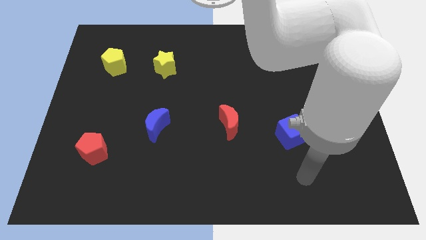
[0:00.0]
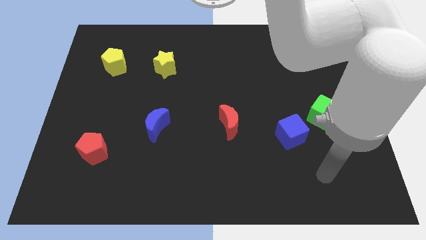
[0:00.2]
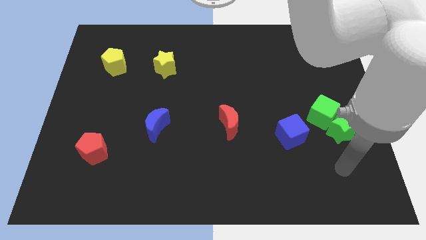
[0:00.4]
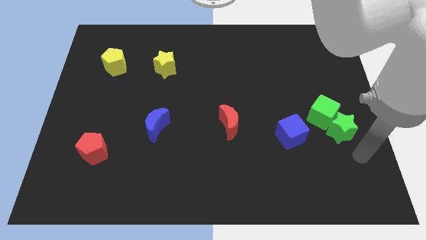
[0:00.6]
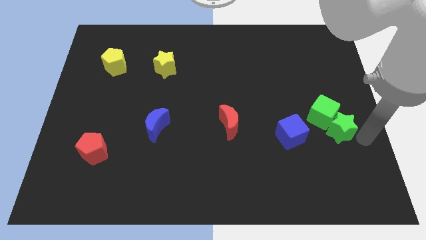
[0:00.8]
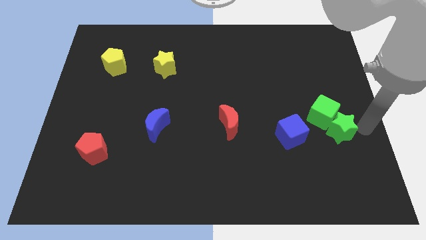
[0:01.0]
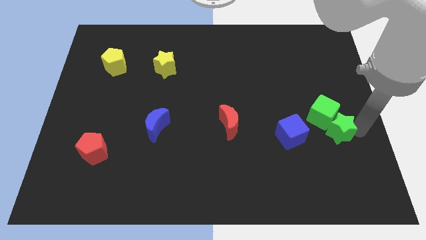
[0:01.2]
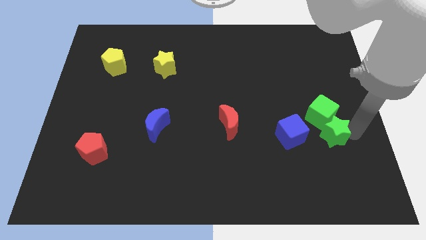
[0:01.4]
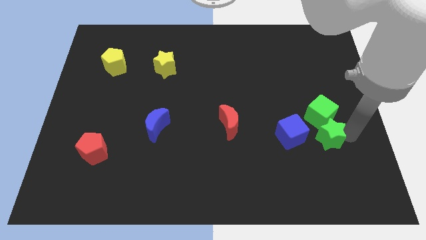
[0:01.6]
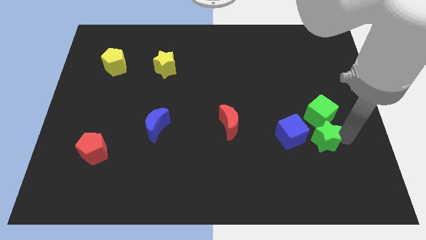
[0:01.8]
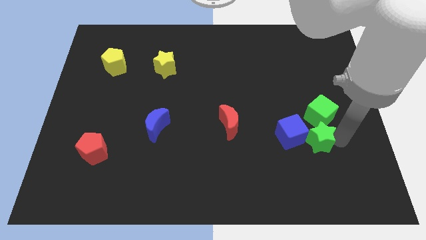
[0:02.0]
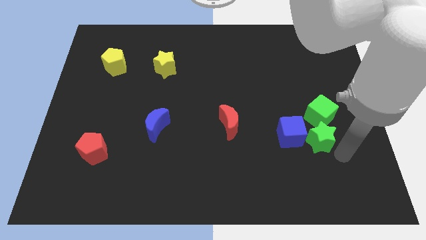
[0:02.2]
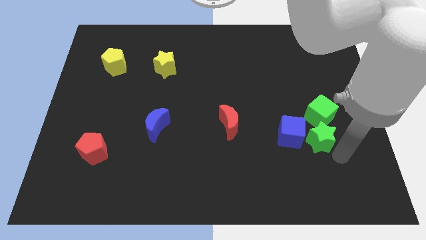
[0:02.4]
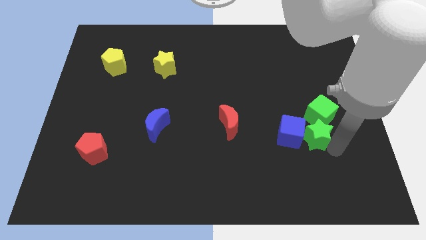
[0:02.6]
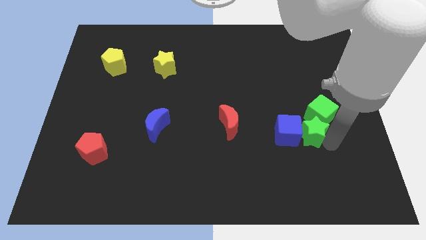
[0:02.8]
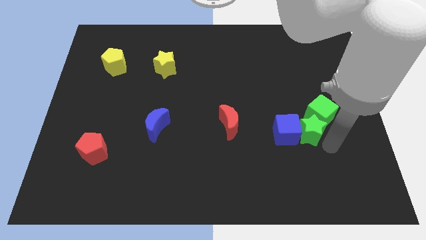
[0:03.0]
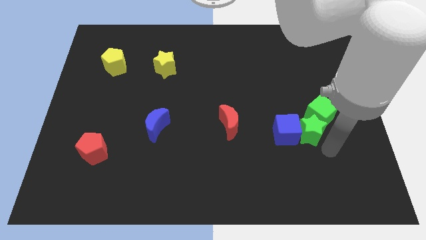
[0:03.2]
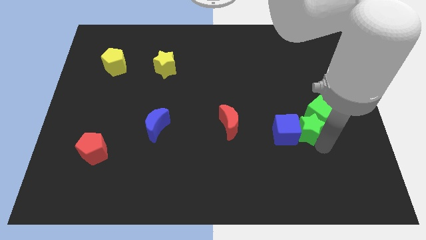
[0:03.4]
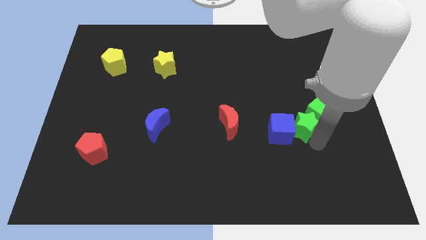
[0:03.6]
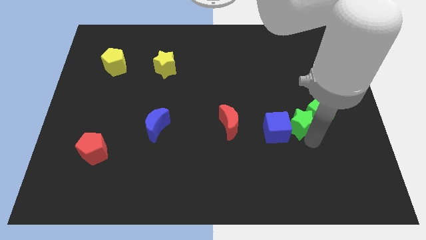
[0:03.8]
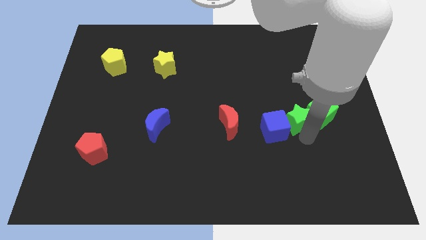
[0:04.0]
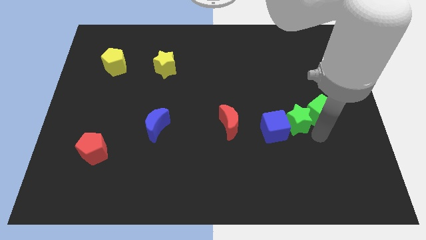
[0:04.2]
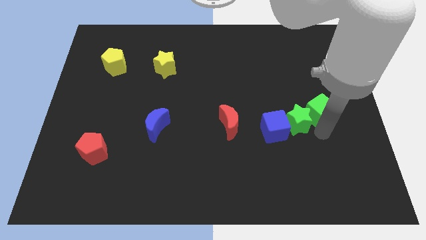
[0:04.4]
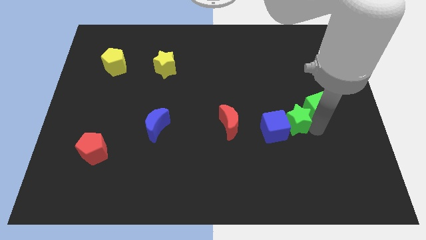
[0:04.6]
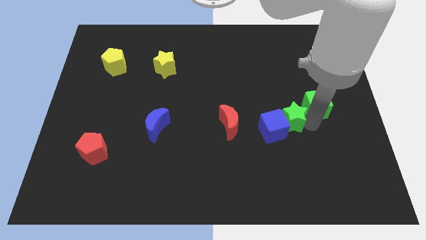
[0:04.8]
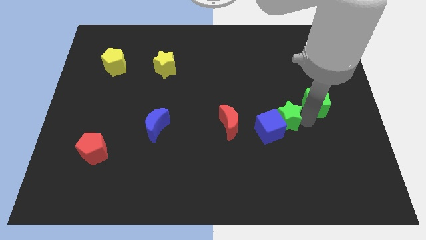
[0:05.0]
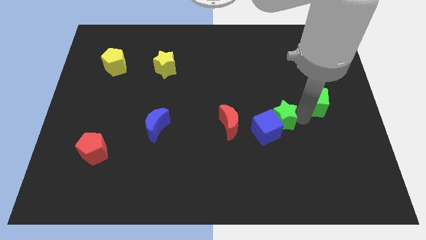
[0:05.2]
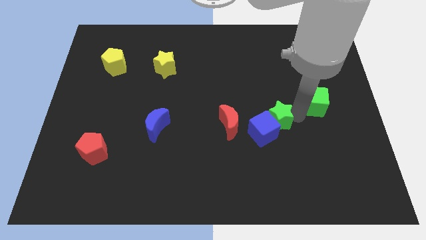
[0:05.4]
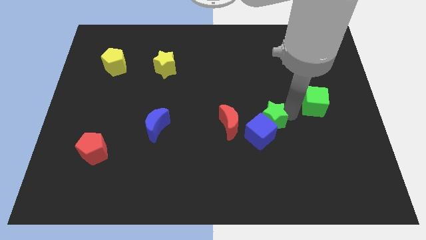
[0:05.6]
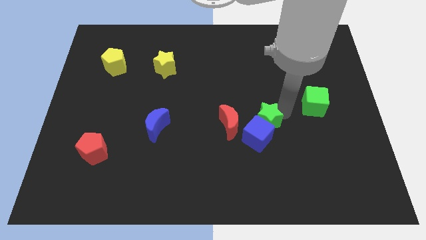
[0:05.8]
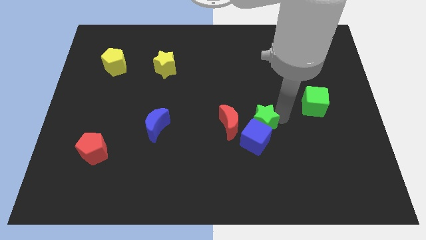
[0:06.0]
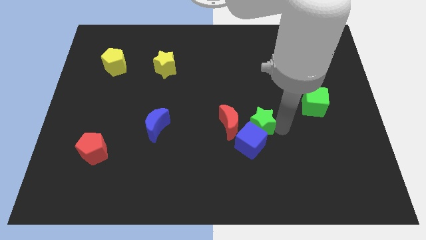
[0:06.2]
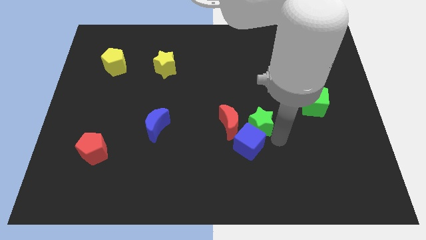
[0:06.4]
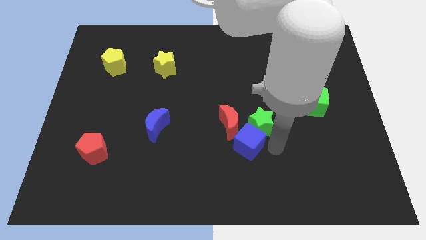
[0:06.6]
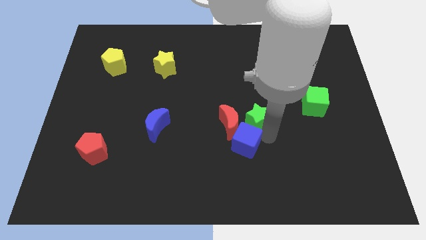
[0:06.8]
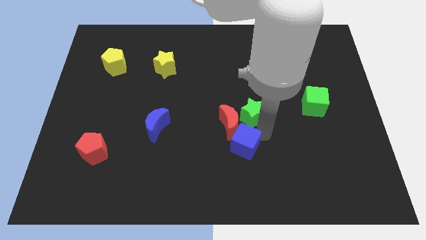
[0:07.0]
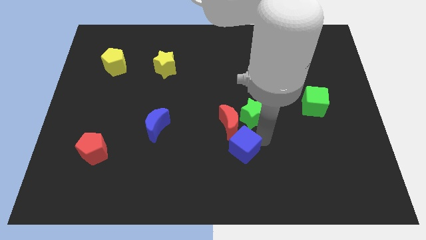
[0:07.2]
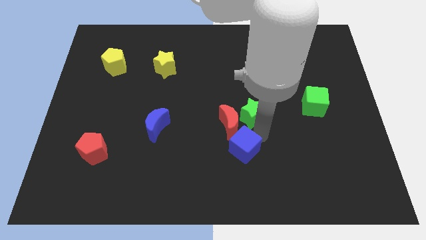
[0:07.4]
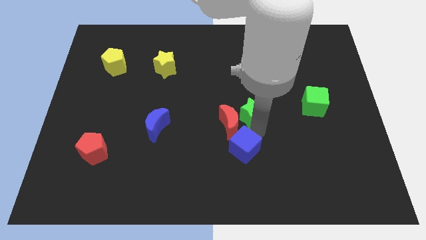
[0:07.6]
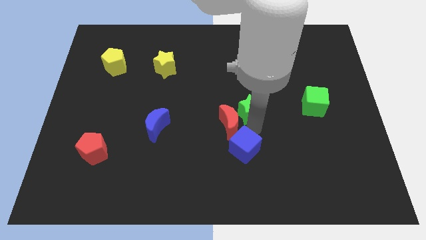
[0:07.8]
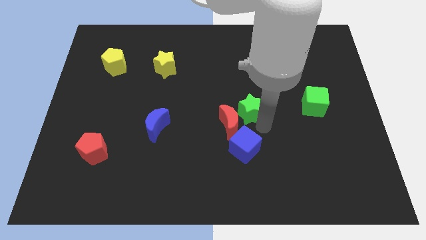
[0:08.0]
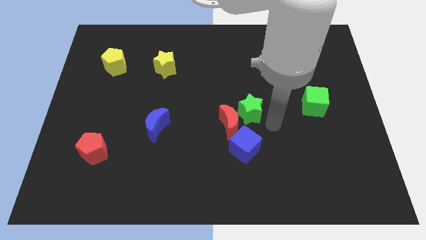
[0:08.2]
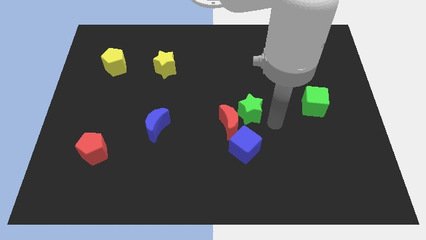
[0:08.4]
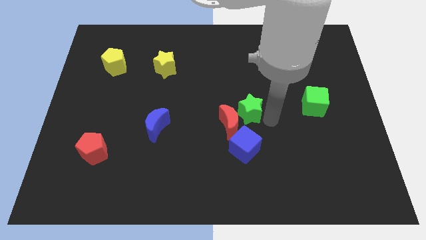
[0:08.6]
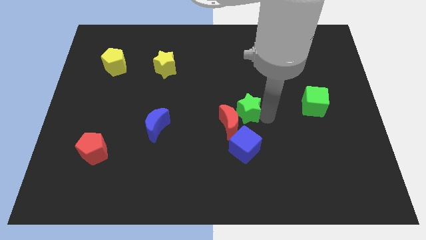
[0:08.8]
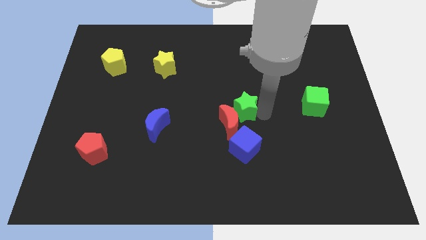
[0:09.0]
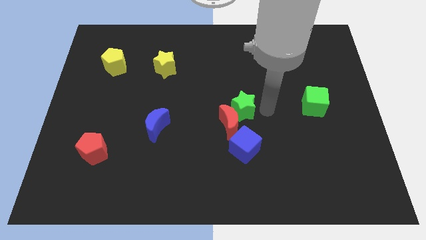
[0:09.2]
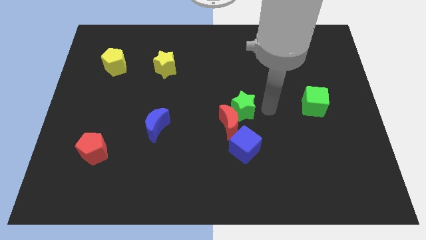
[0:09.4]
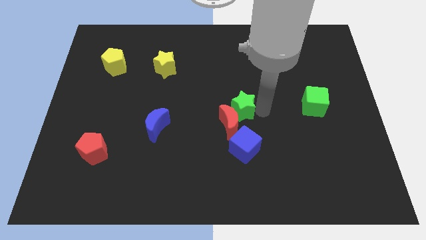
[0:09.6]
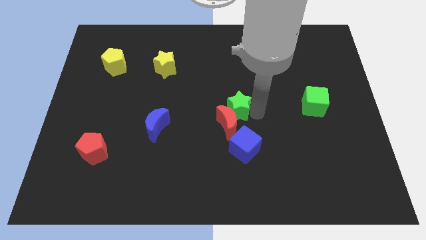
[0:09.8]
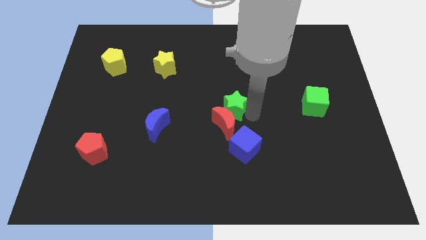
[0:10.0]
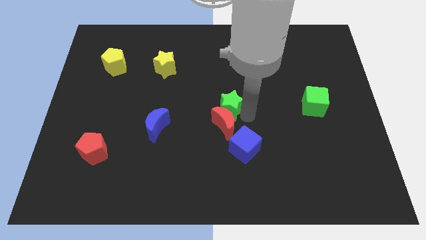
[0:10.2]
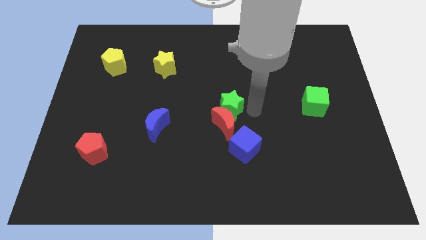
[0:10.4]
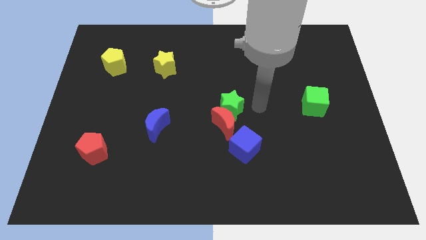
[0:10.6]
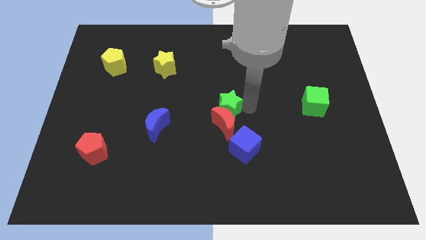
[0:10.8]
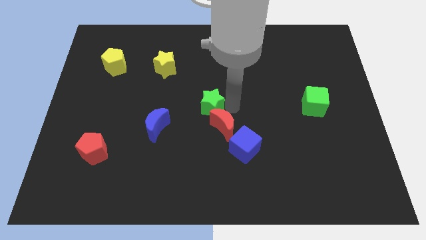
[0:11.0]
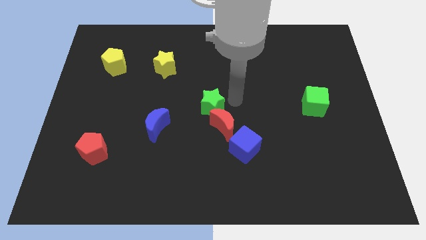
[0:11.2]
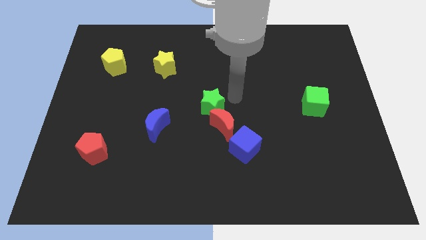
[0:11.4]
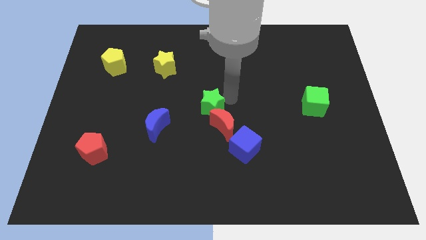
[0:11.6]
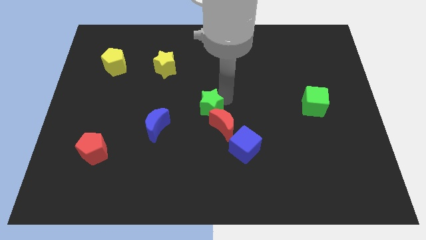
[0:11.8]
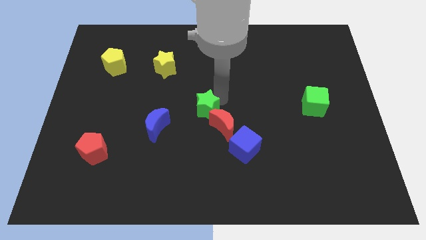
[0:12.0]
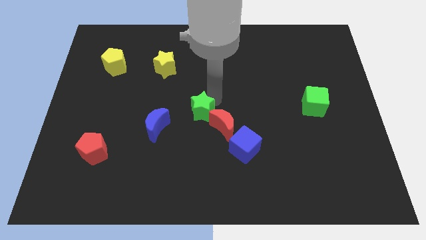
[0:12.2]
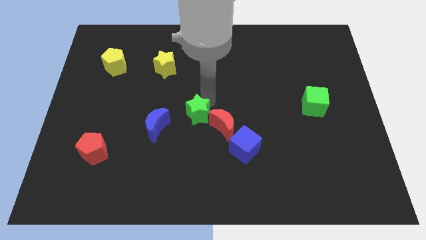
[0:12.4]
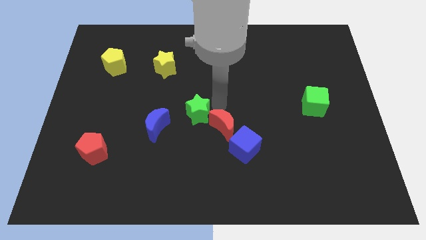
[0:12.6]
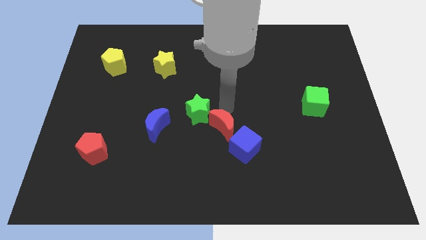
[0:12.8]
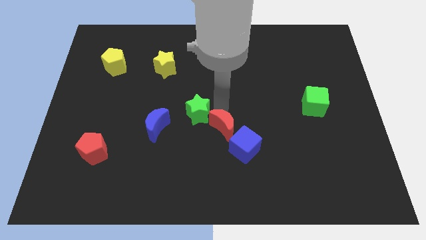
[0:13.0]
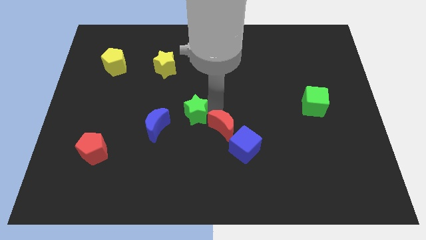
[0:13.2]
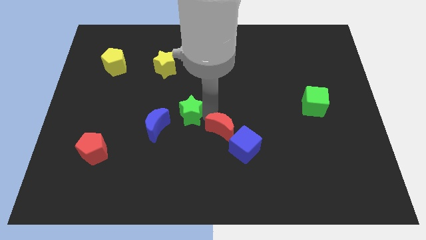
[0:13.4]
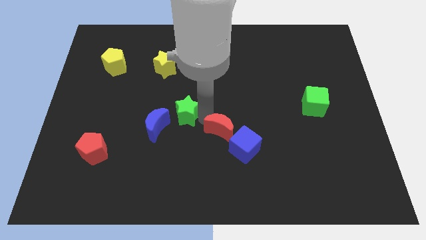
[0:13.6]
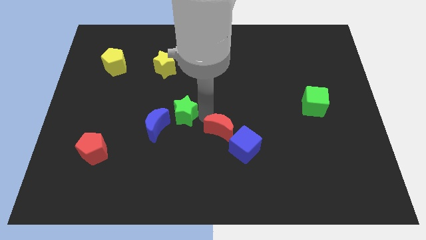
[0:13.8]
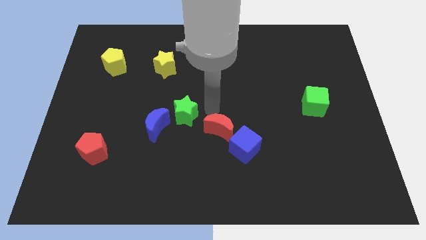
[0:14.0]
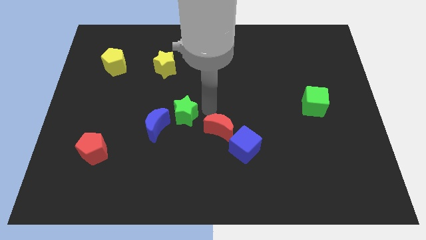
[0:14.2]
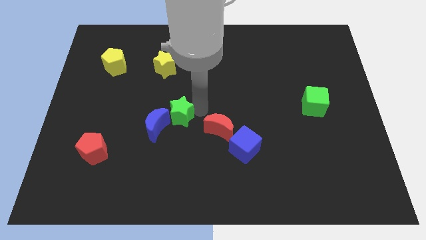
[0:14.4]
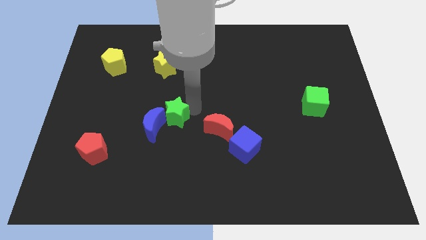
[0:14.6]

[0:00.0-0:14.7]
move the green star towards the blue moon
